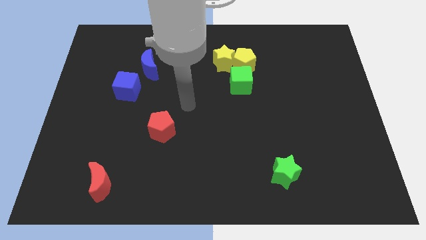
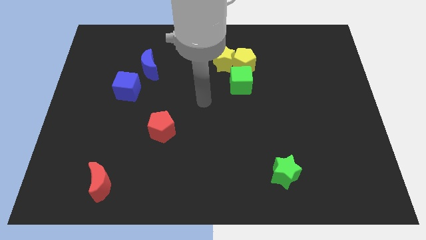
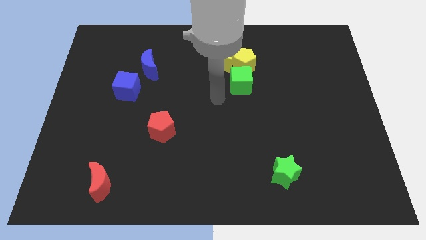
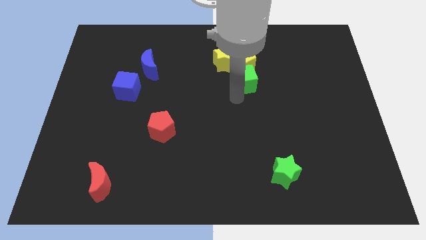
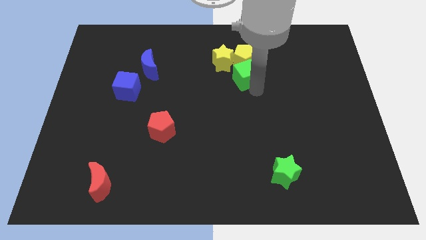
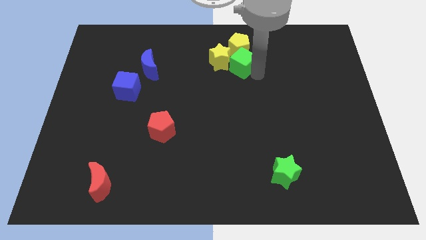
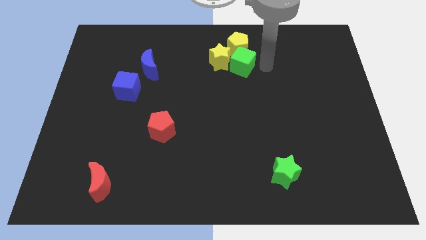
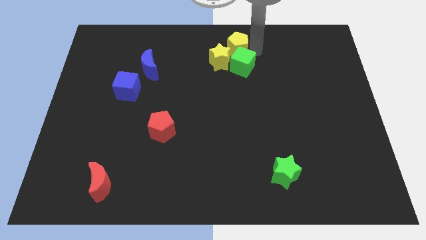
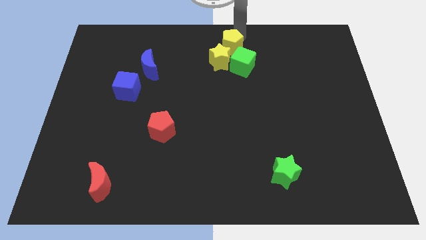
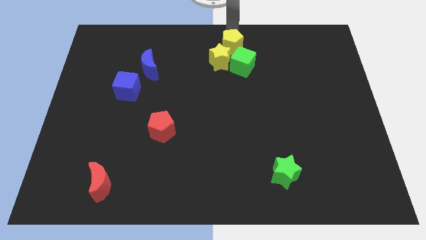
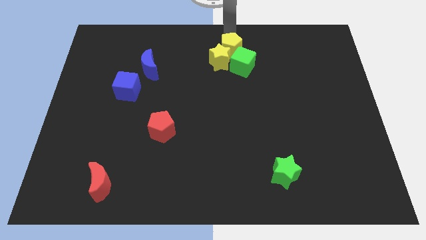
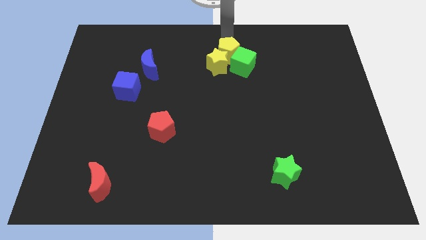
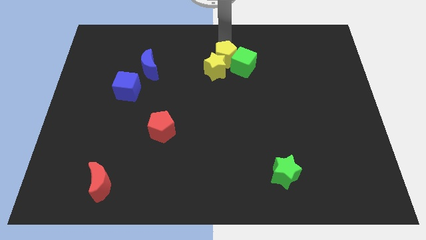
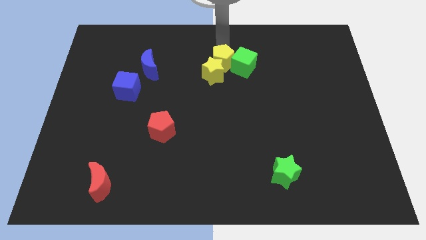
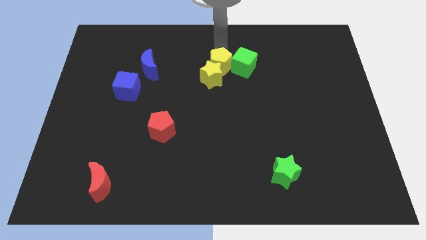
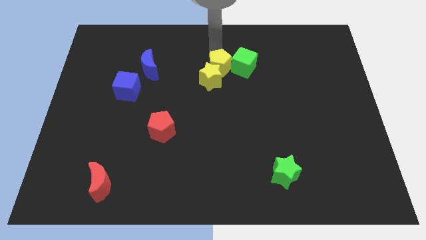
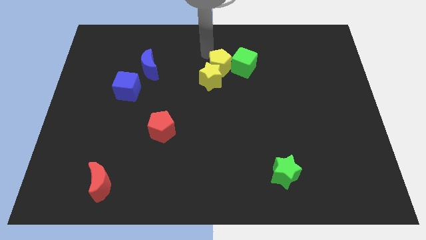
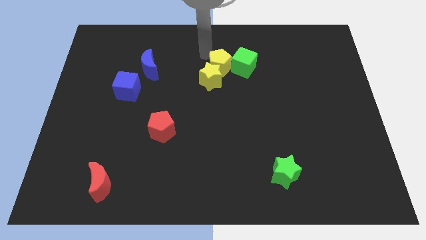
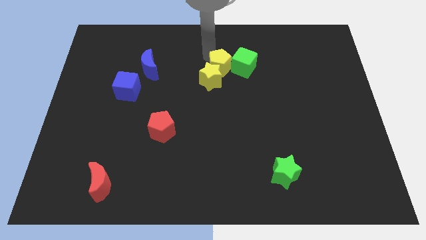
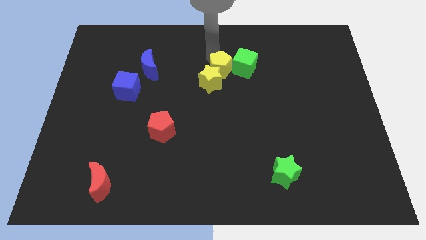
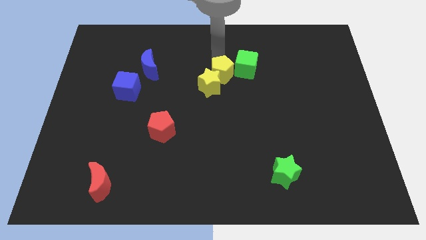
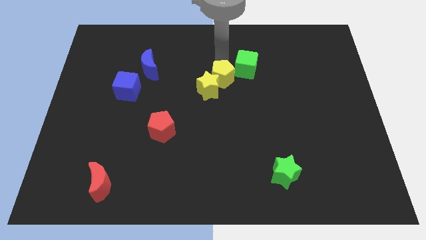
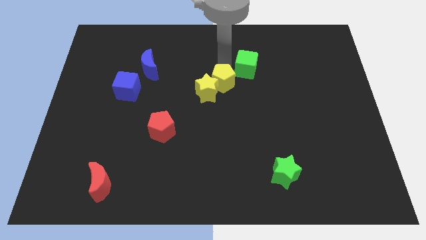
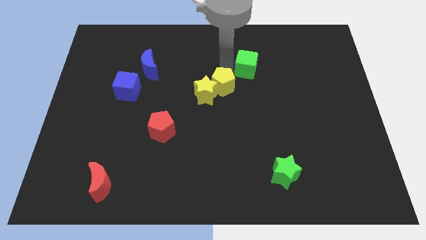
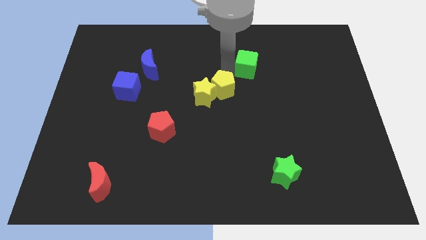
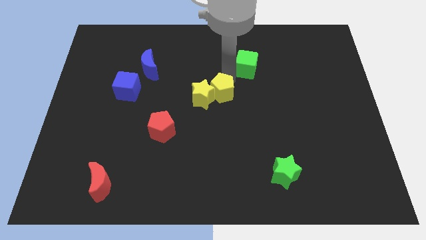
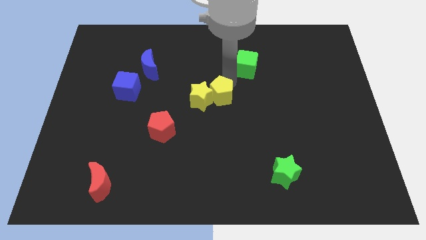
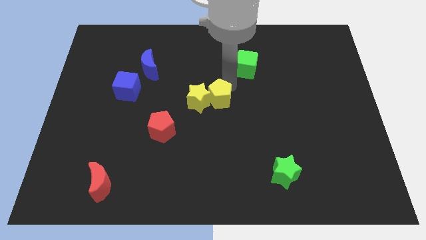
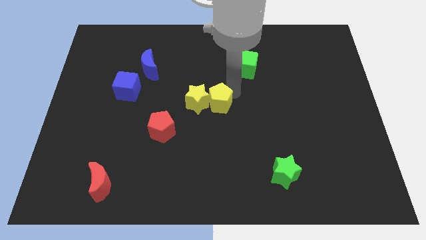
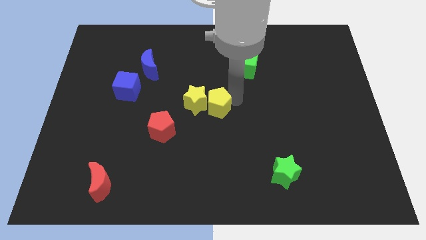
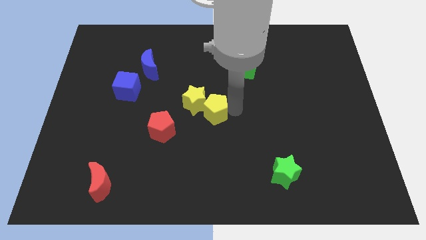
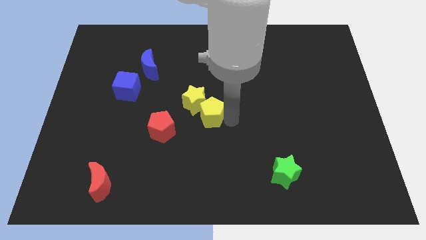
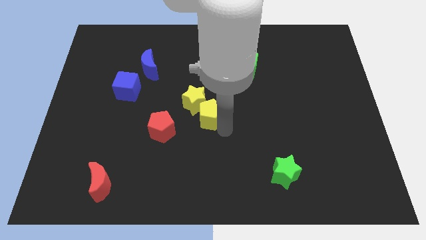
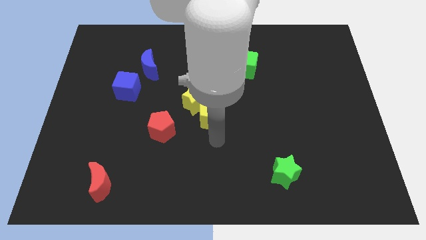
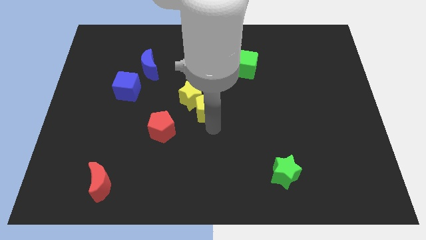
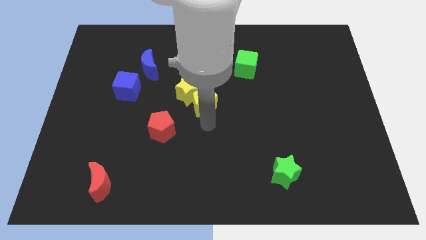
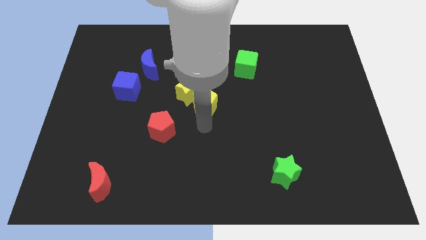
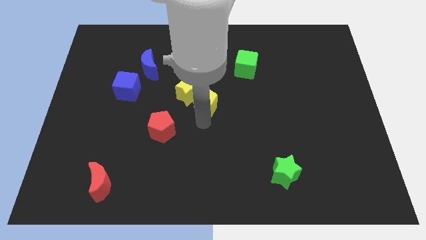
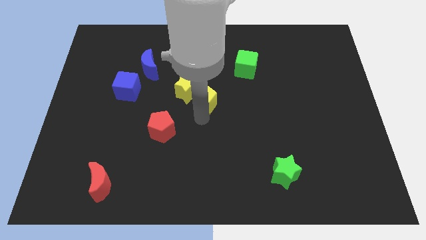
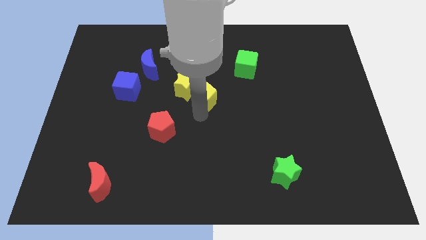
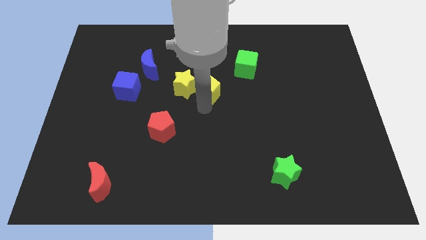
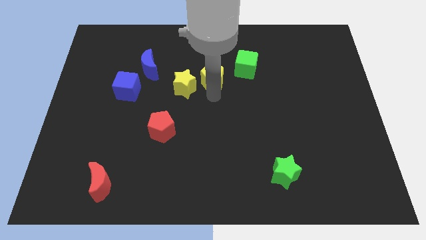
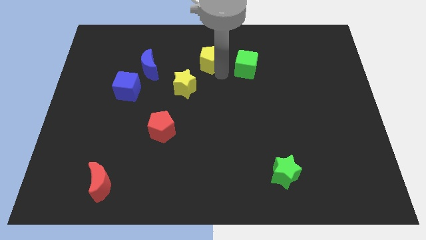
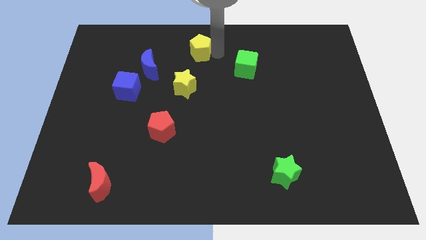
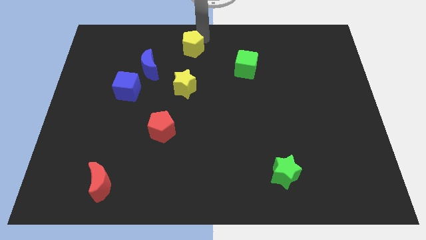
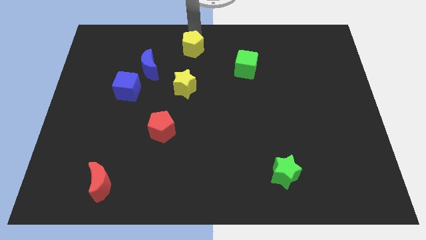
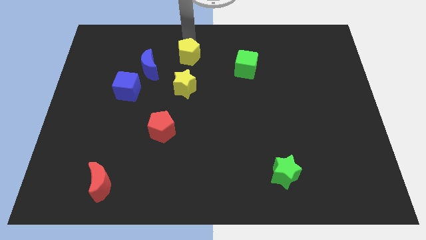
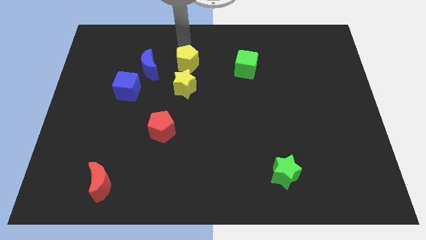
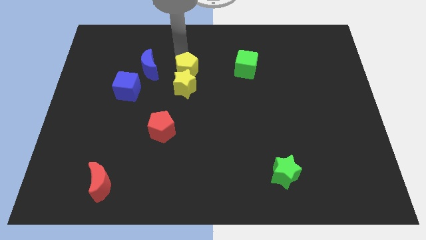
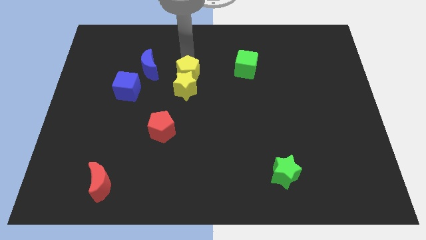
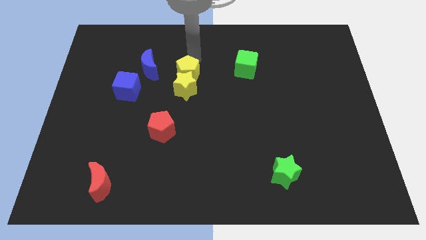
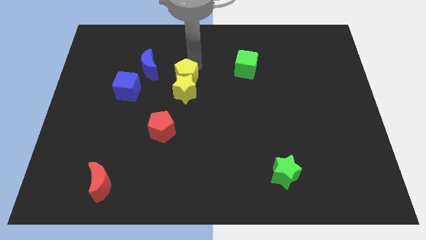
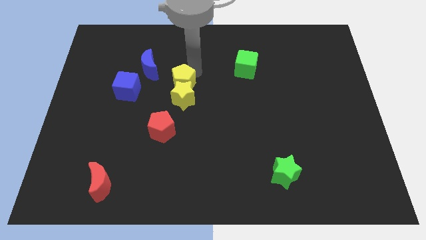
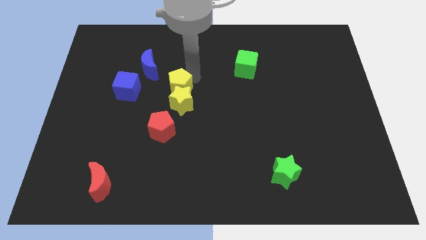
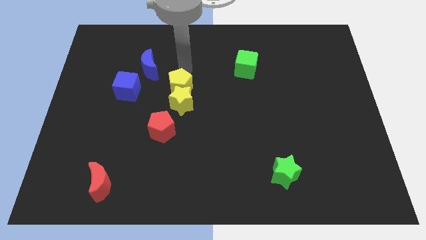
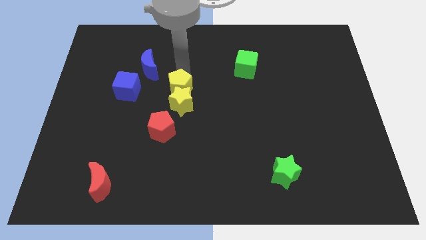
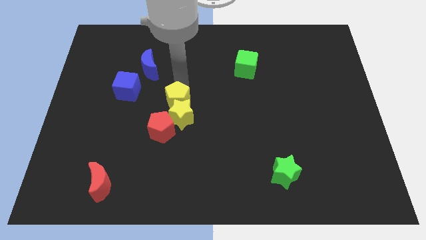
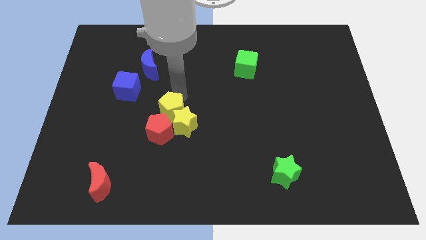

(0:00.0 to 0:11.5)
push the yellow pentagon close to the red pentagon

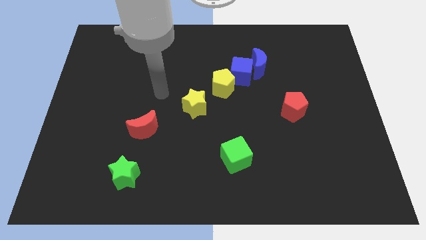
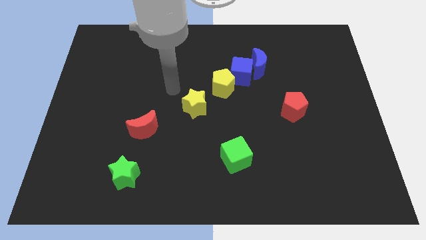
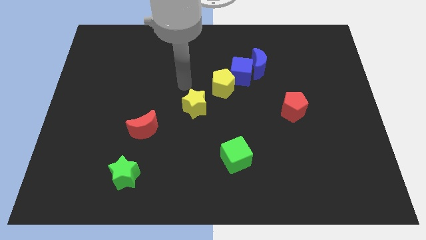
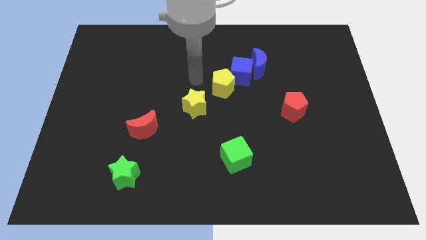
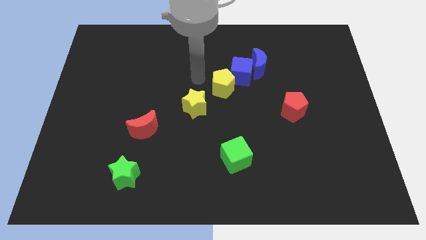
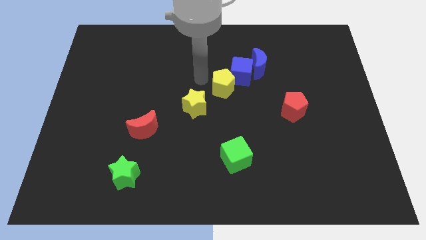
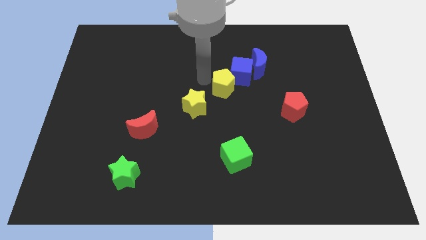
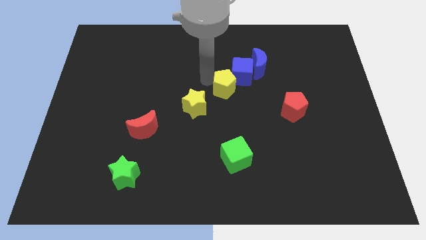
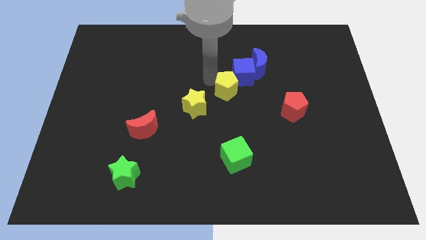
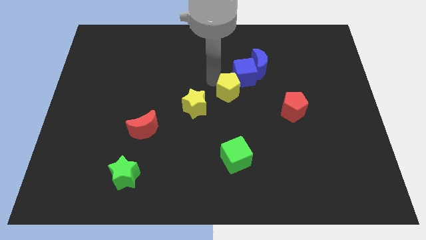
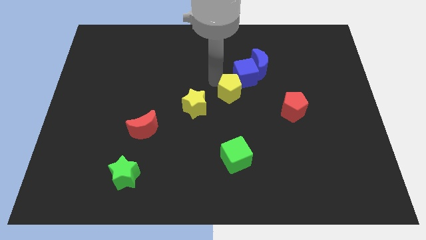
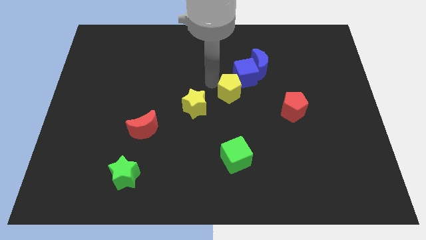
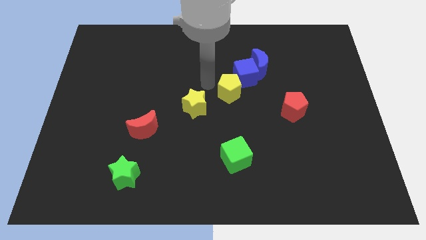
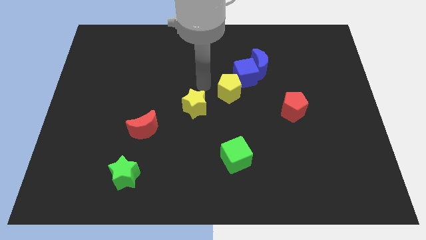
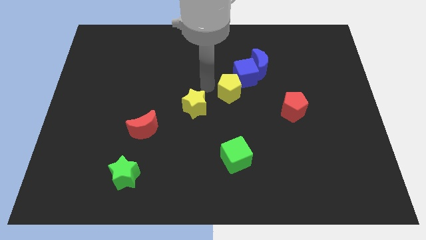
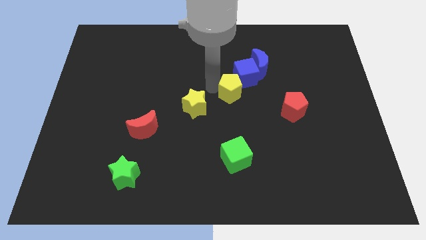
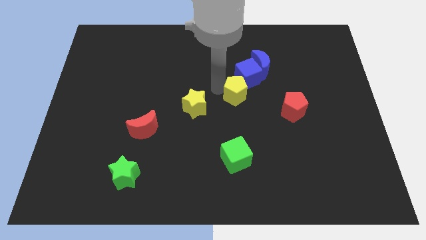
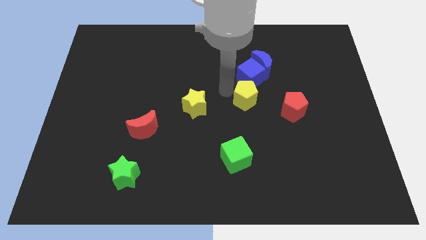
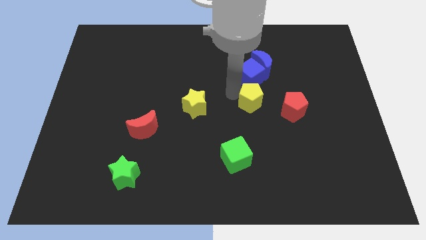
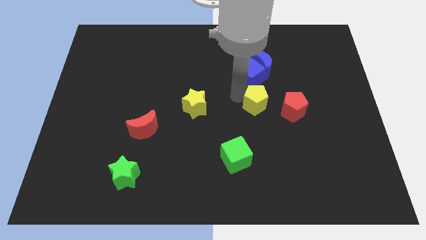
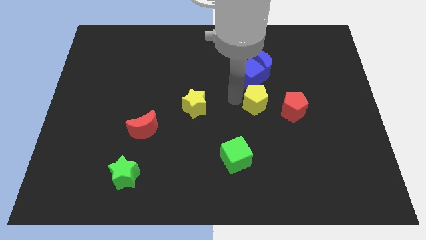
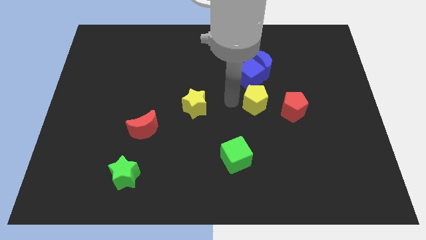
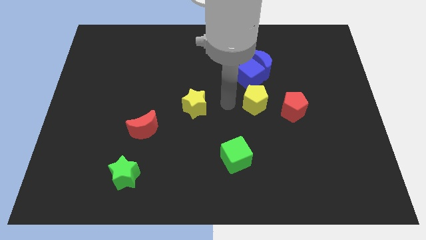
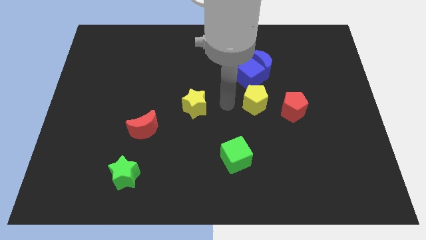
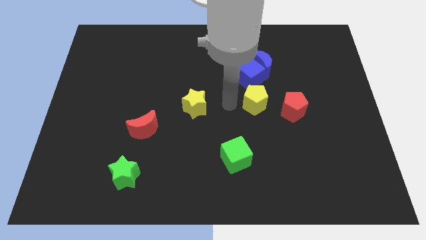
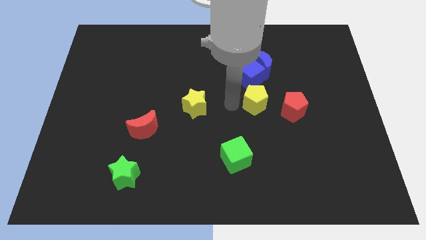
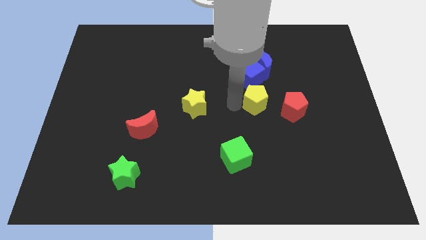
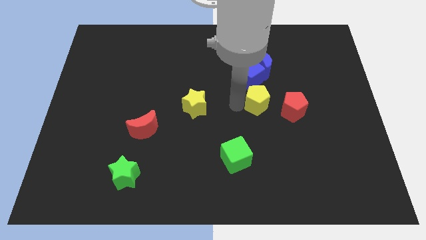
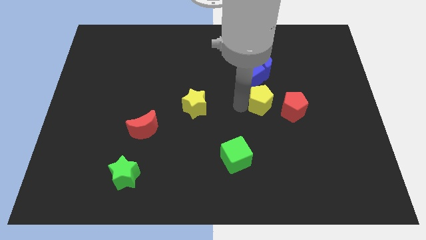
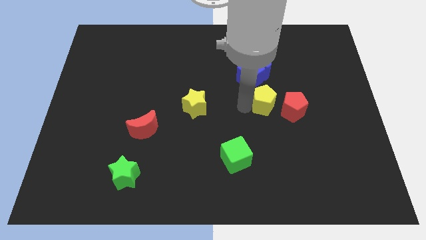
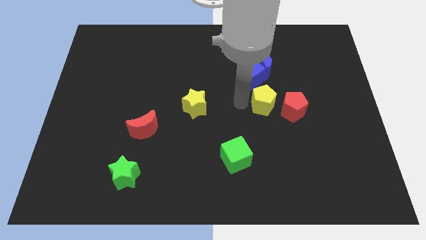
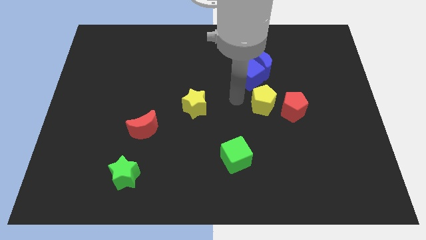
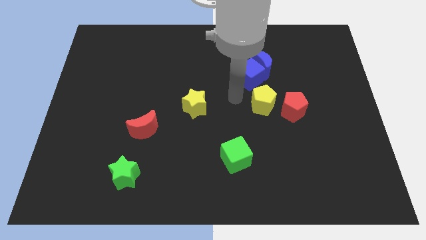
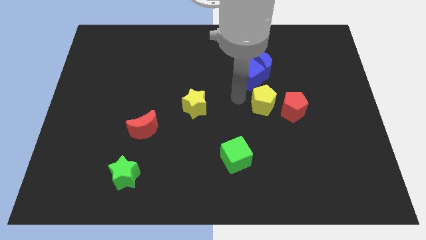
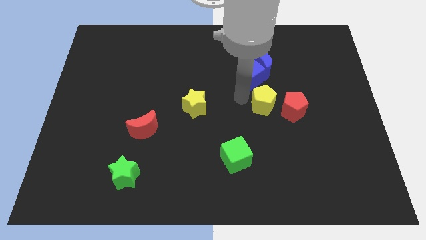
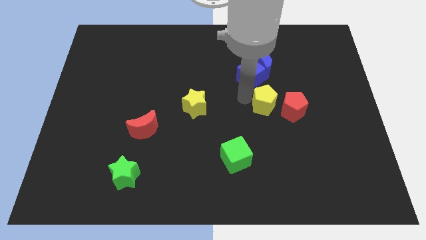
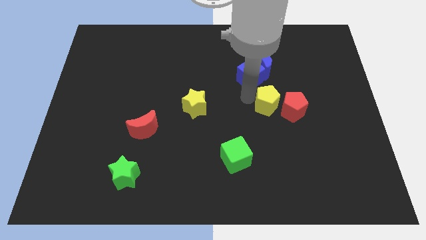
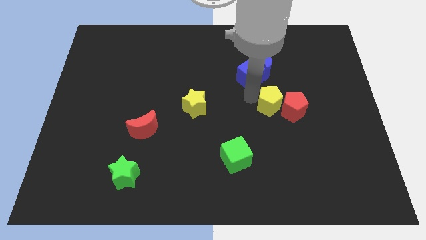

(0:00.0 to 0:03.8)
move the yellow pentagon close to the red pentagon
